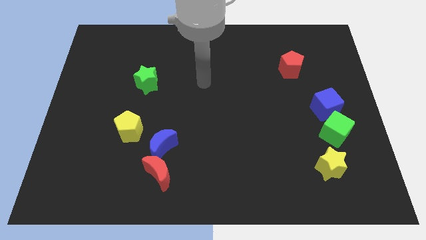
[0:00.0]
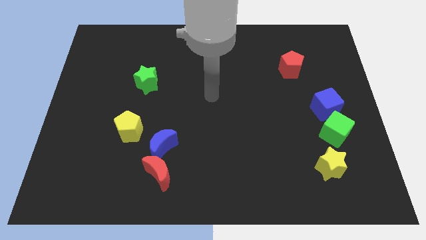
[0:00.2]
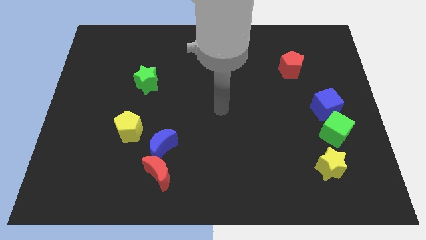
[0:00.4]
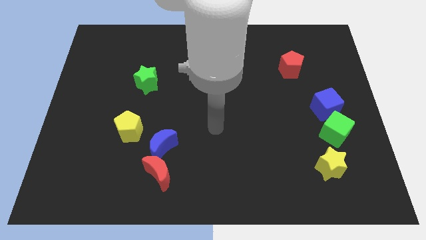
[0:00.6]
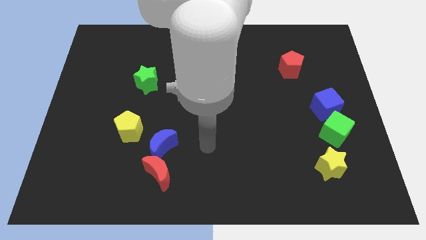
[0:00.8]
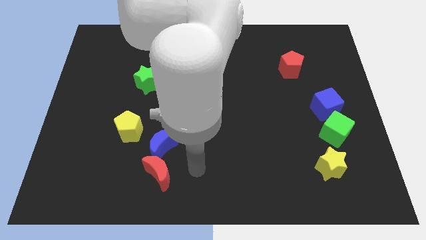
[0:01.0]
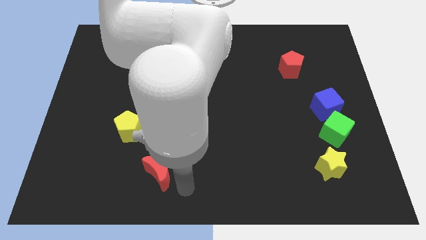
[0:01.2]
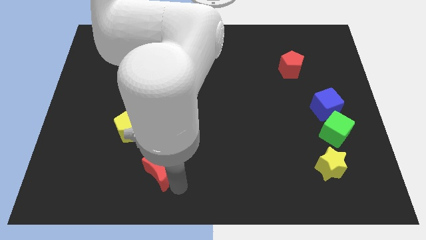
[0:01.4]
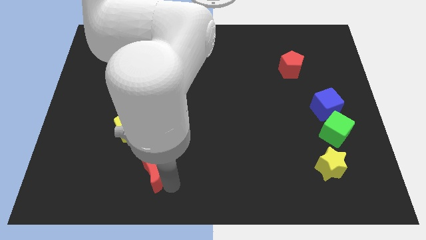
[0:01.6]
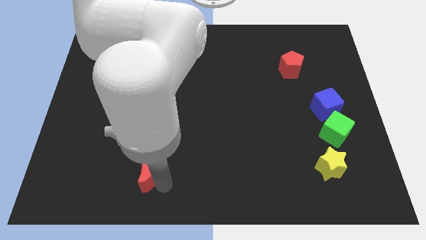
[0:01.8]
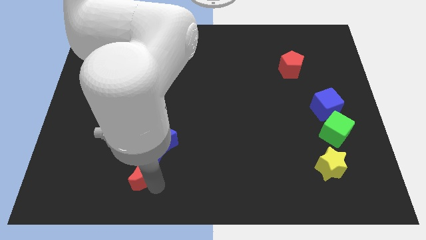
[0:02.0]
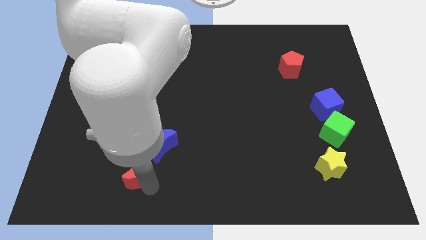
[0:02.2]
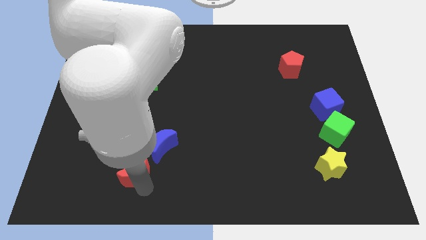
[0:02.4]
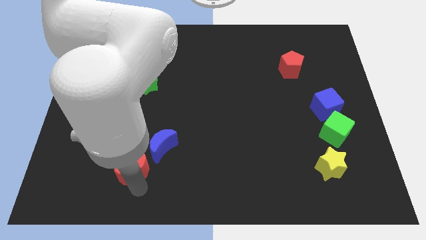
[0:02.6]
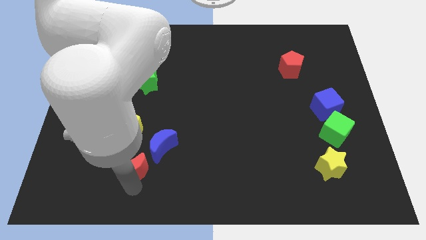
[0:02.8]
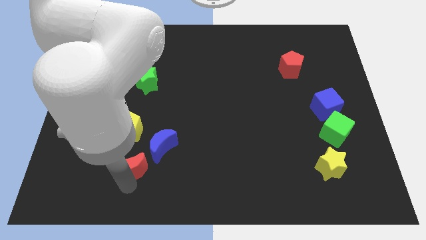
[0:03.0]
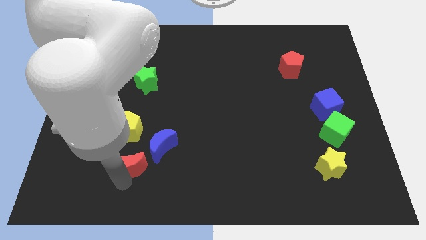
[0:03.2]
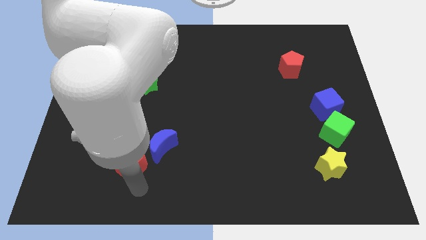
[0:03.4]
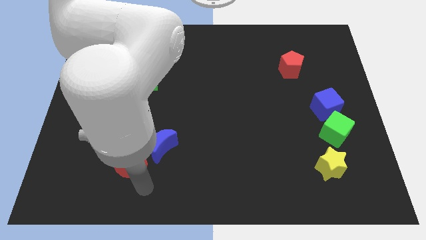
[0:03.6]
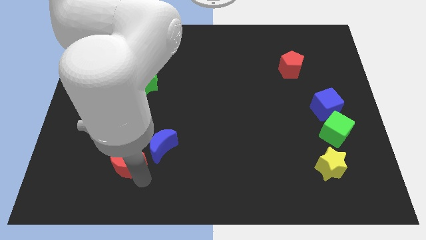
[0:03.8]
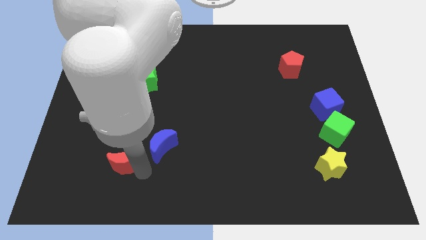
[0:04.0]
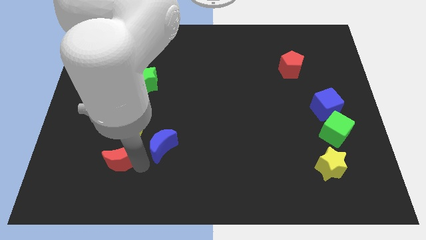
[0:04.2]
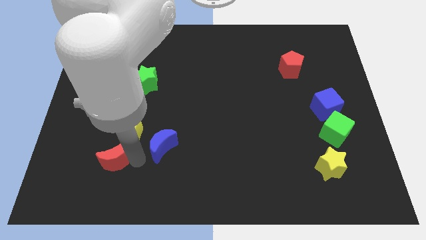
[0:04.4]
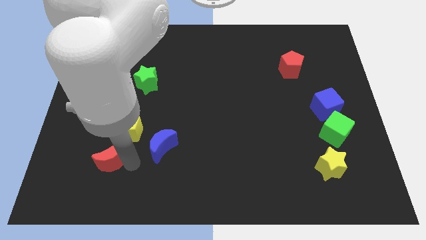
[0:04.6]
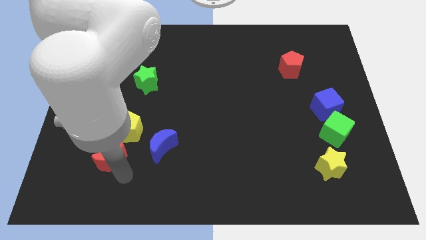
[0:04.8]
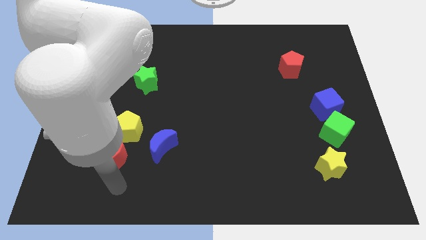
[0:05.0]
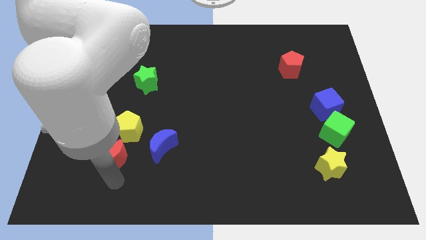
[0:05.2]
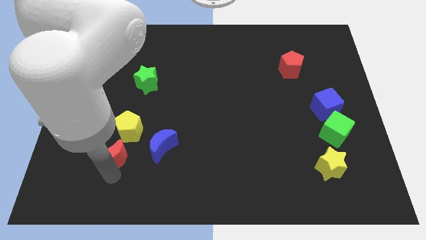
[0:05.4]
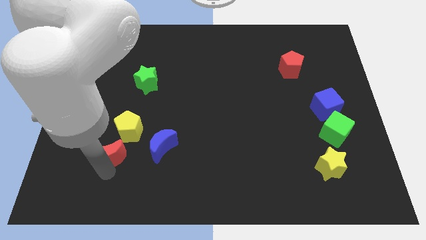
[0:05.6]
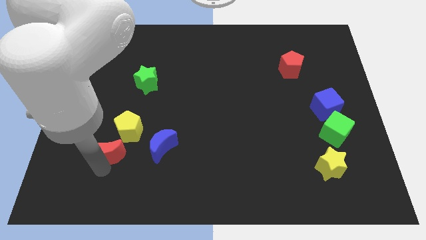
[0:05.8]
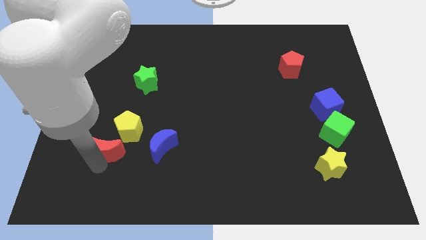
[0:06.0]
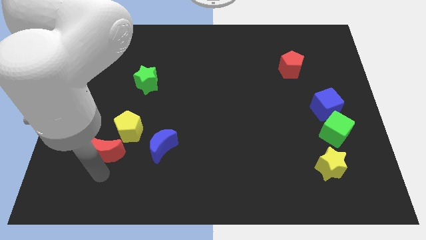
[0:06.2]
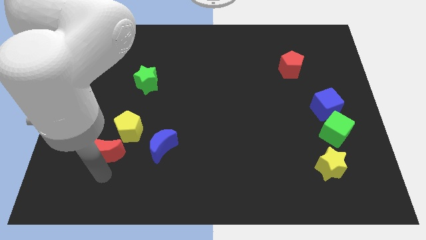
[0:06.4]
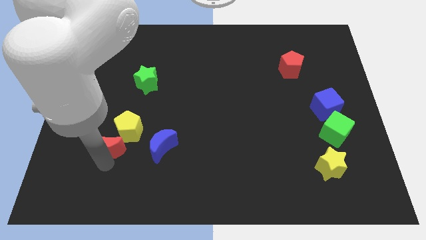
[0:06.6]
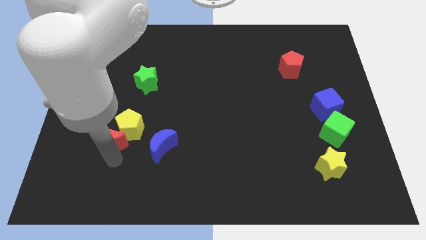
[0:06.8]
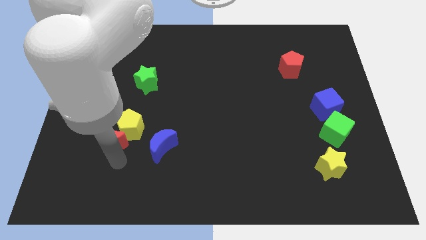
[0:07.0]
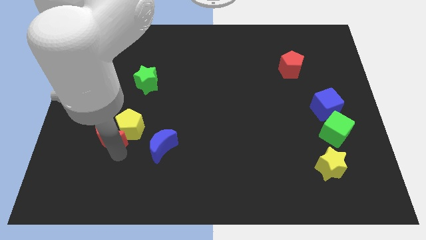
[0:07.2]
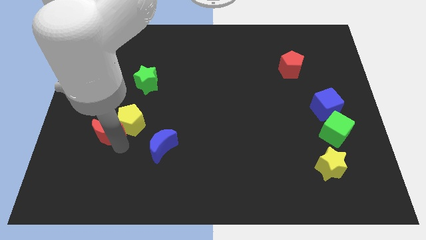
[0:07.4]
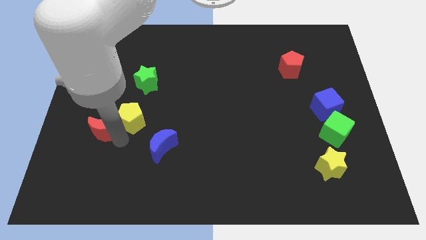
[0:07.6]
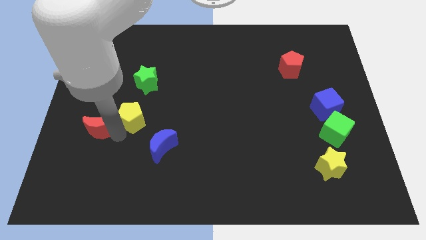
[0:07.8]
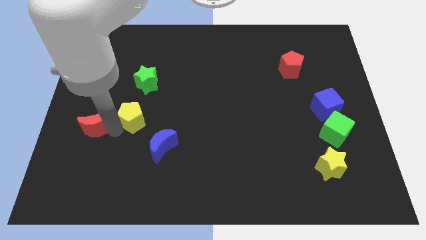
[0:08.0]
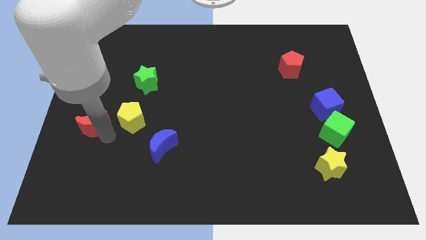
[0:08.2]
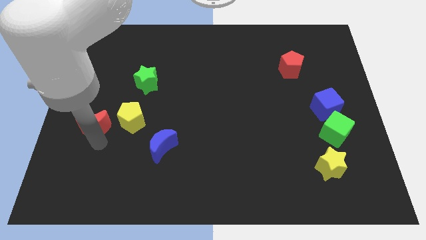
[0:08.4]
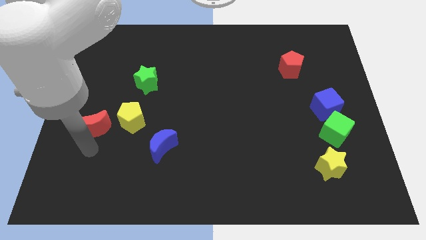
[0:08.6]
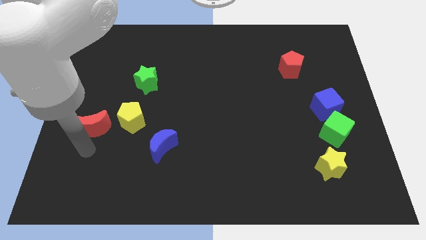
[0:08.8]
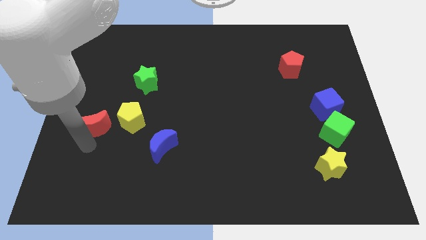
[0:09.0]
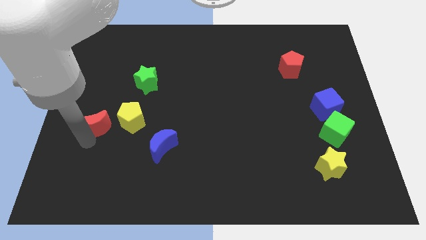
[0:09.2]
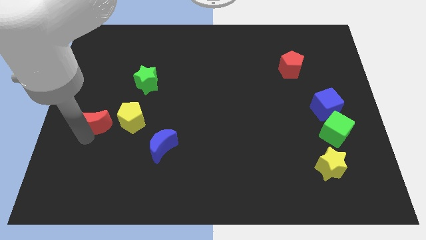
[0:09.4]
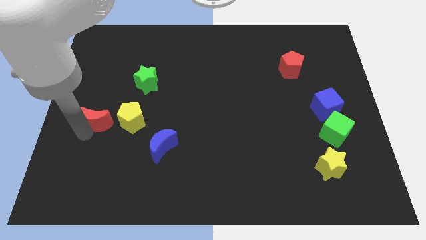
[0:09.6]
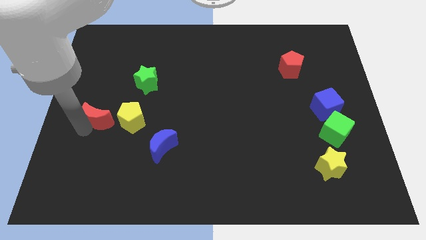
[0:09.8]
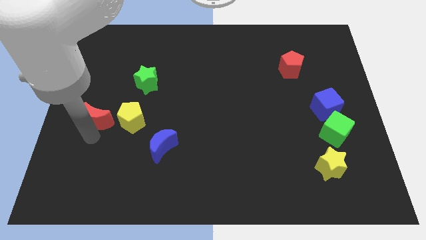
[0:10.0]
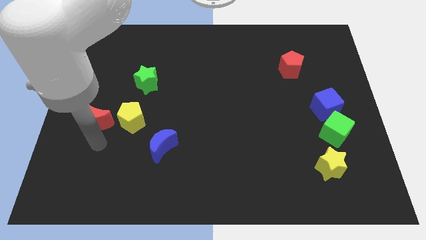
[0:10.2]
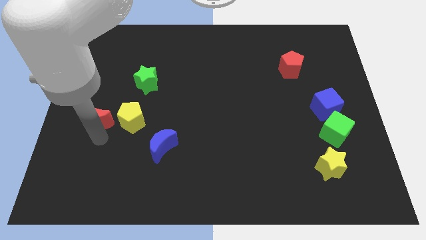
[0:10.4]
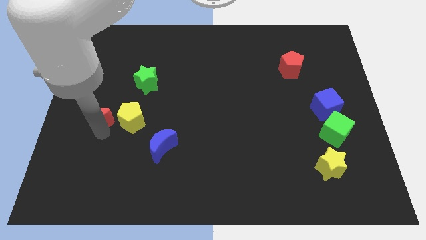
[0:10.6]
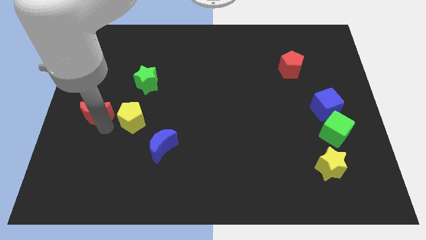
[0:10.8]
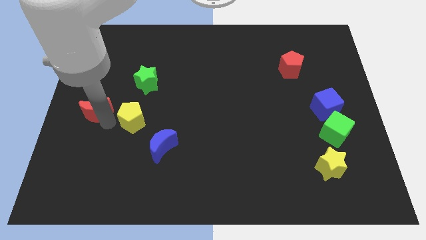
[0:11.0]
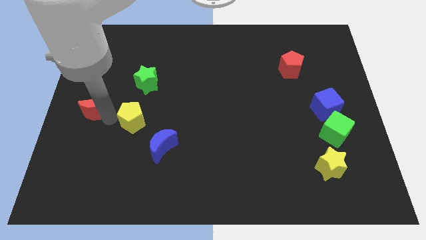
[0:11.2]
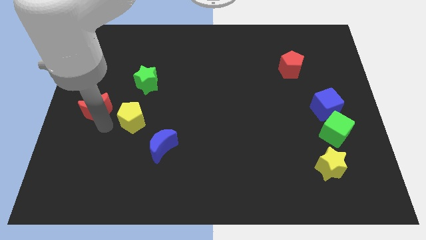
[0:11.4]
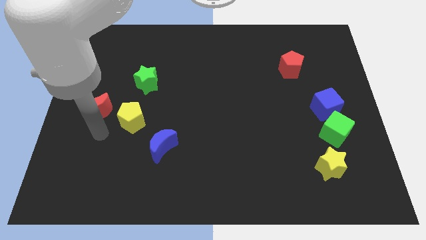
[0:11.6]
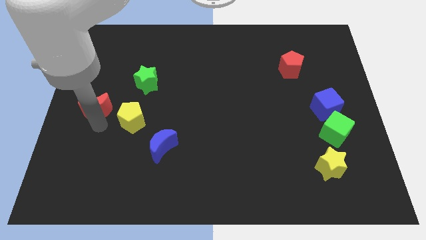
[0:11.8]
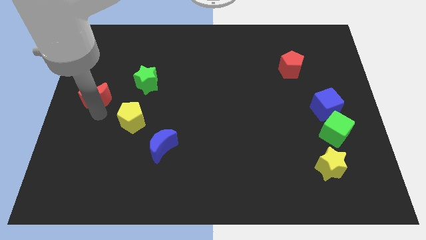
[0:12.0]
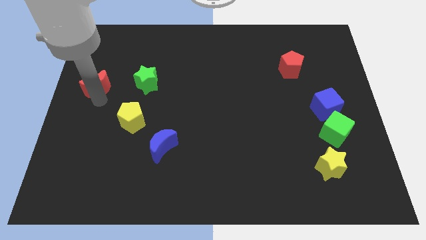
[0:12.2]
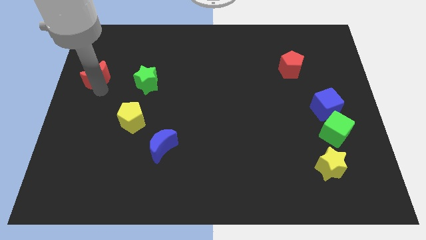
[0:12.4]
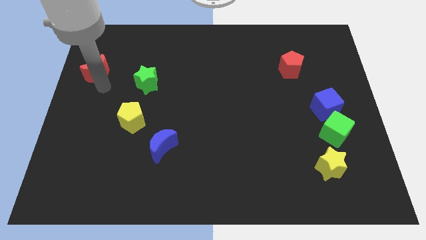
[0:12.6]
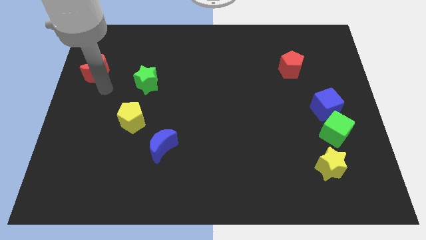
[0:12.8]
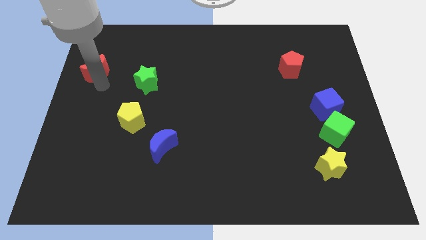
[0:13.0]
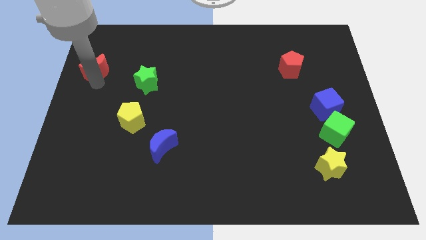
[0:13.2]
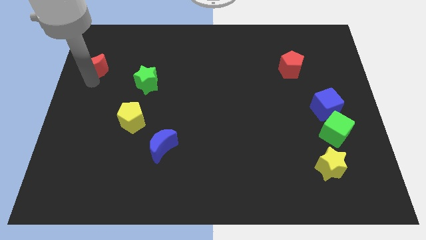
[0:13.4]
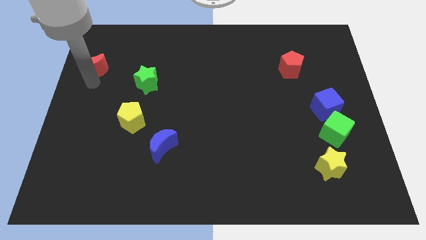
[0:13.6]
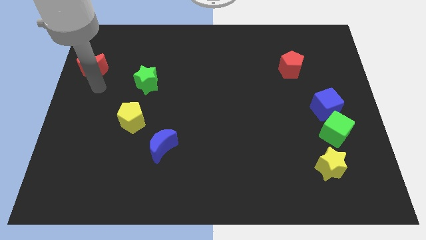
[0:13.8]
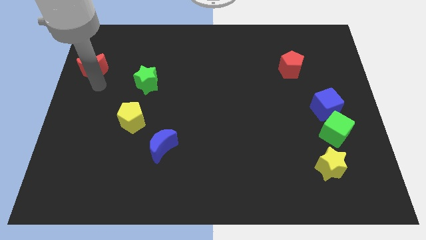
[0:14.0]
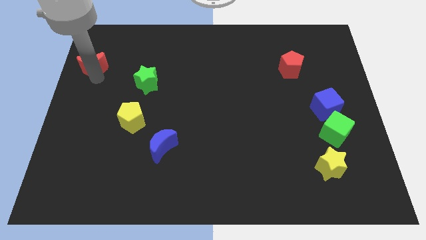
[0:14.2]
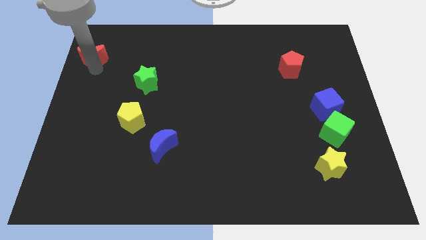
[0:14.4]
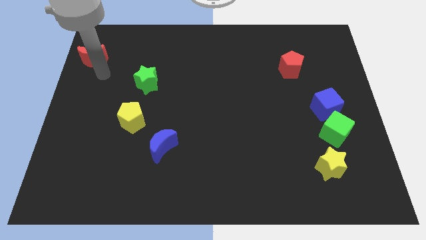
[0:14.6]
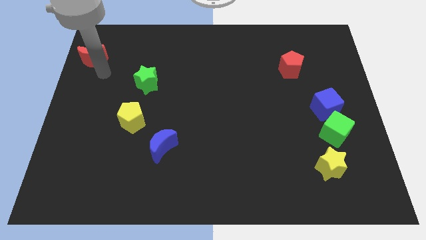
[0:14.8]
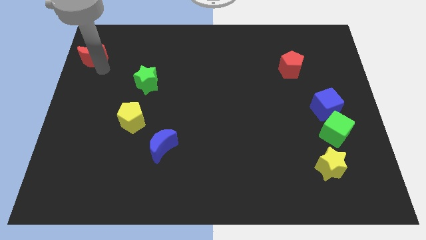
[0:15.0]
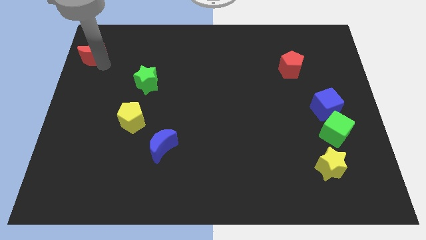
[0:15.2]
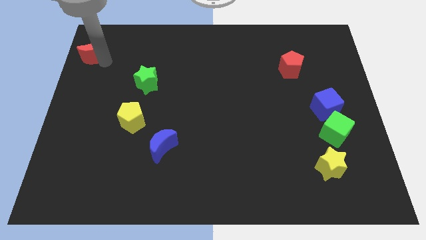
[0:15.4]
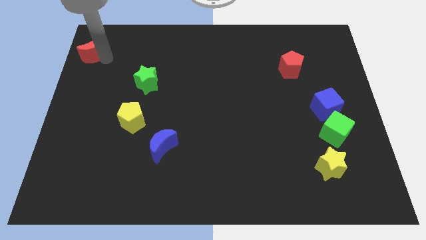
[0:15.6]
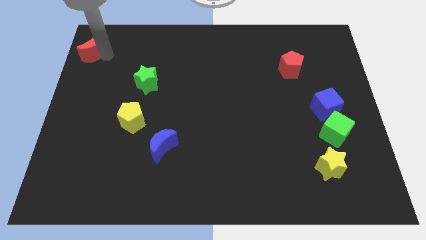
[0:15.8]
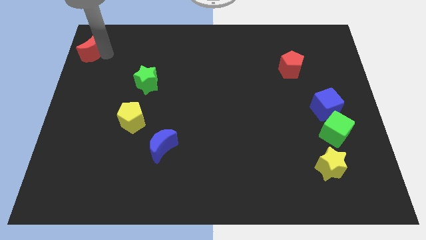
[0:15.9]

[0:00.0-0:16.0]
put the red moon to the top left
